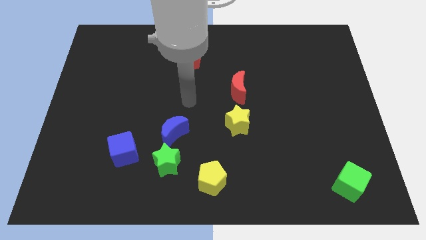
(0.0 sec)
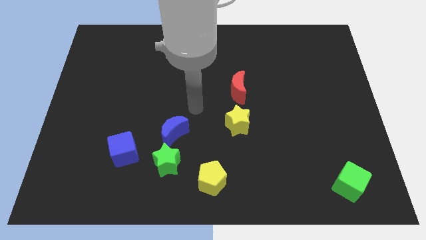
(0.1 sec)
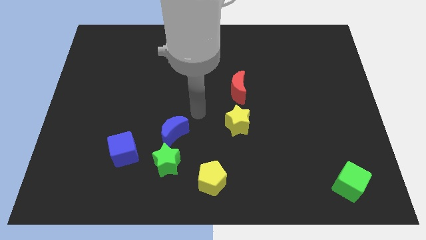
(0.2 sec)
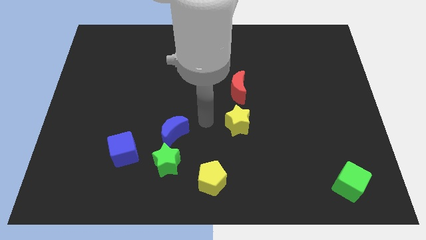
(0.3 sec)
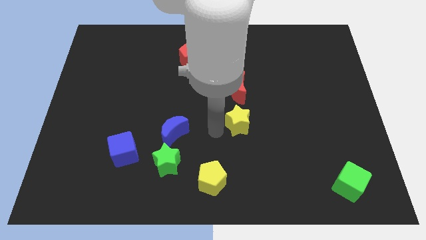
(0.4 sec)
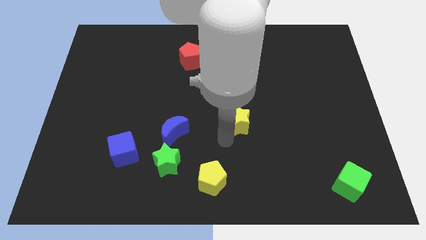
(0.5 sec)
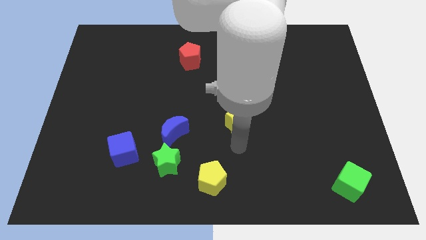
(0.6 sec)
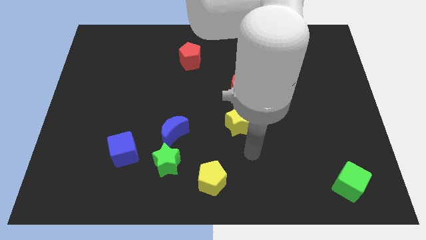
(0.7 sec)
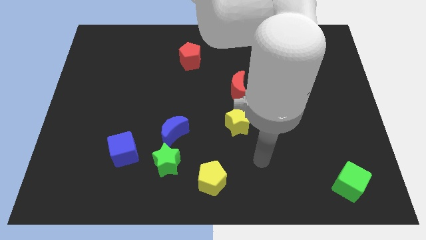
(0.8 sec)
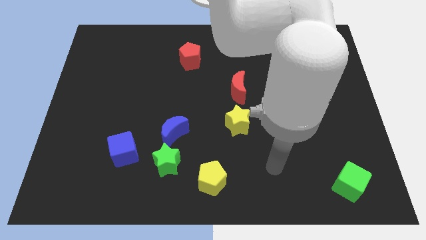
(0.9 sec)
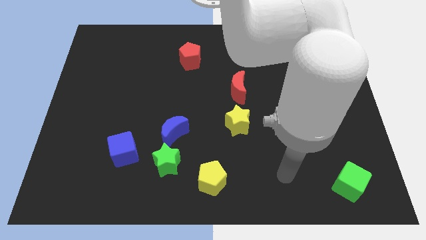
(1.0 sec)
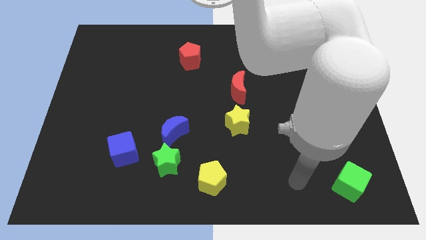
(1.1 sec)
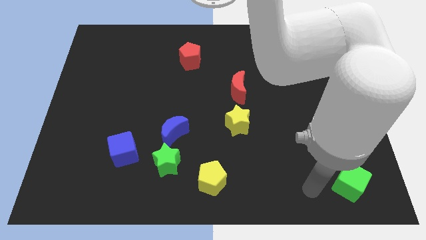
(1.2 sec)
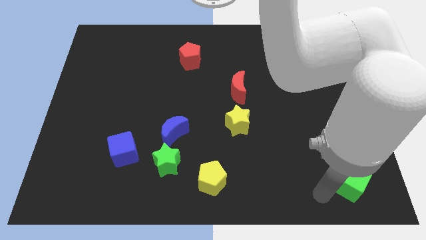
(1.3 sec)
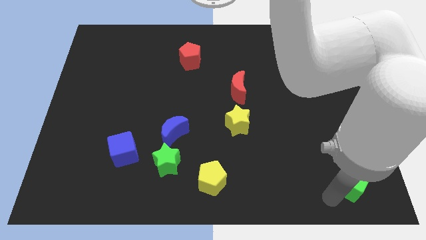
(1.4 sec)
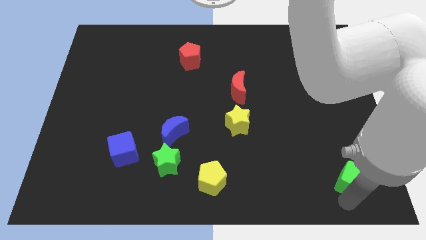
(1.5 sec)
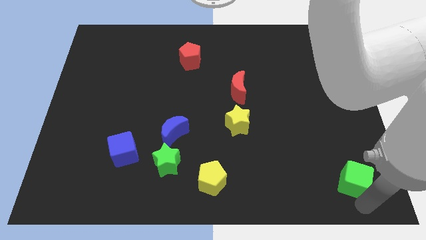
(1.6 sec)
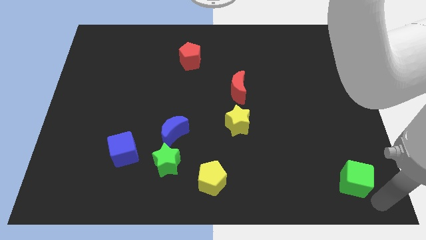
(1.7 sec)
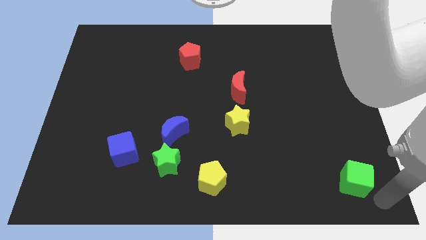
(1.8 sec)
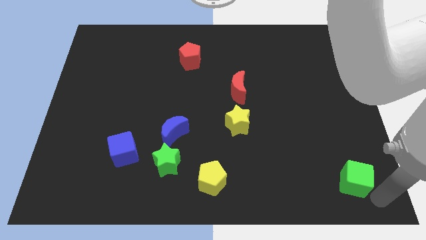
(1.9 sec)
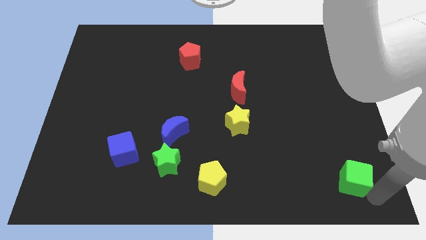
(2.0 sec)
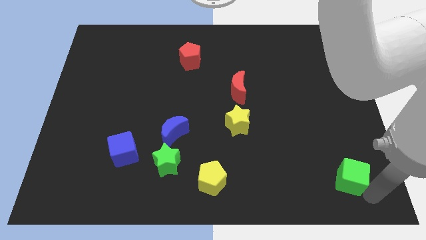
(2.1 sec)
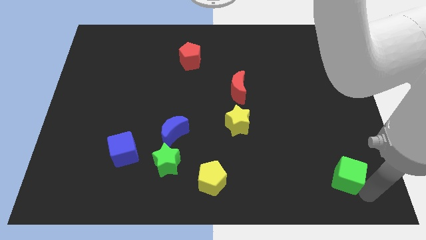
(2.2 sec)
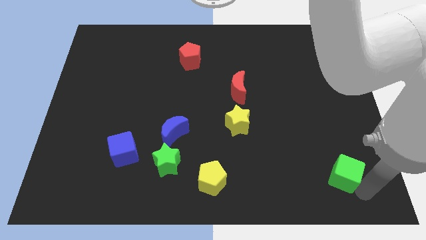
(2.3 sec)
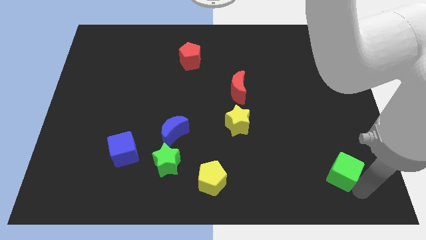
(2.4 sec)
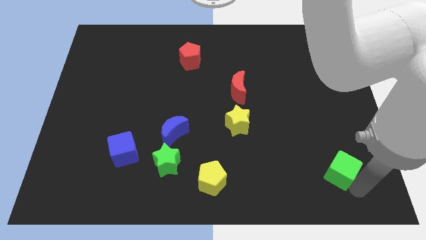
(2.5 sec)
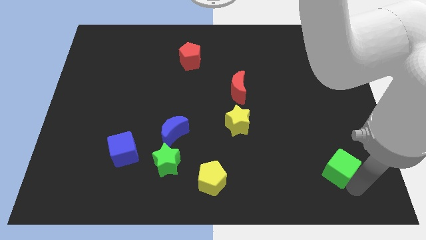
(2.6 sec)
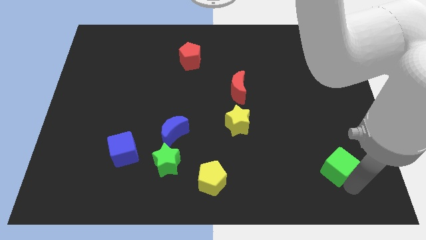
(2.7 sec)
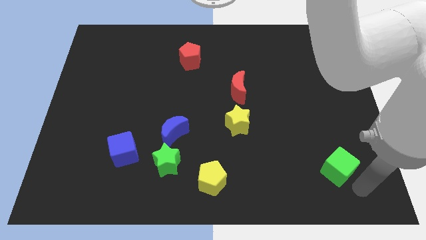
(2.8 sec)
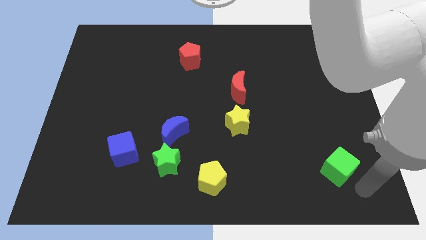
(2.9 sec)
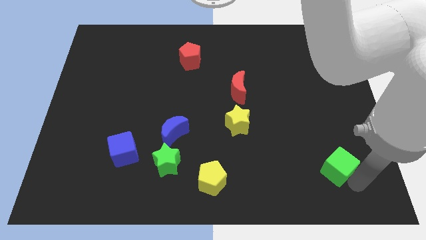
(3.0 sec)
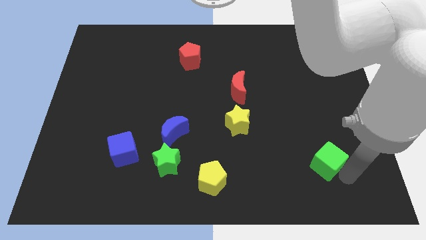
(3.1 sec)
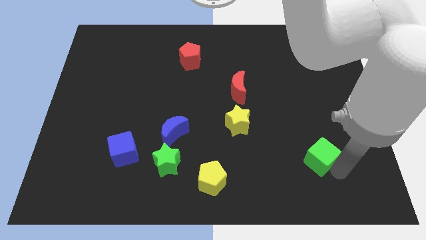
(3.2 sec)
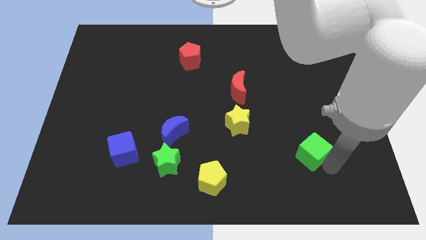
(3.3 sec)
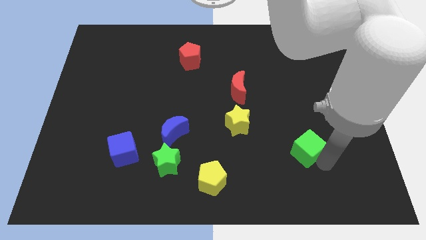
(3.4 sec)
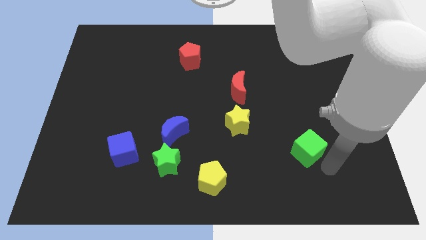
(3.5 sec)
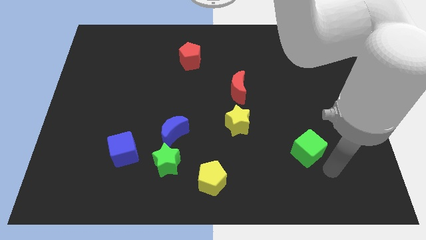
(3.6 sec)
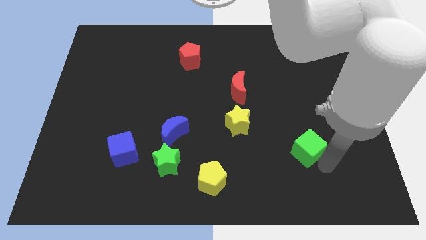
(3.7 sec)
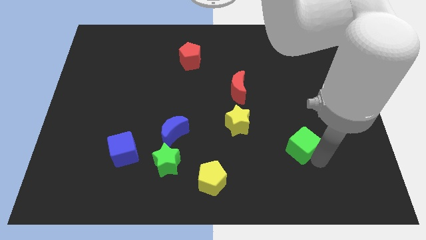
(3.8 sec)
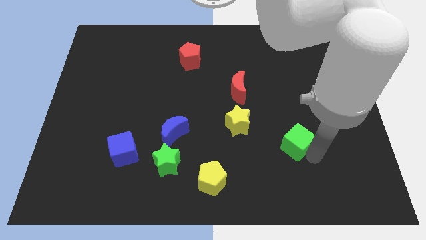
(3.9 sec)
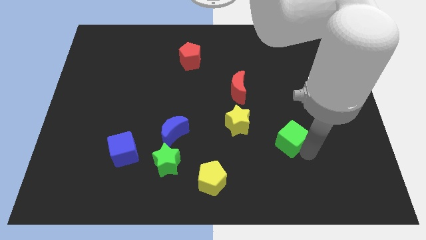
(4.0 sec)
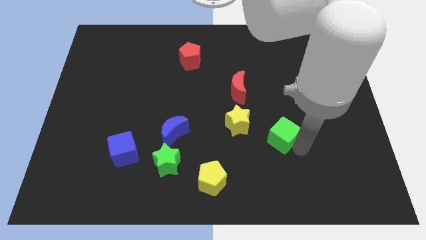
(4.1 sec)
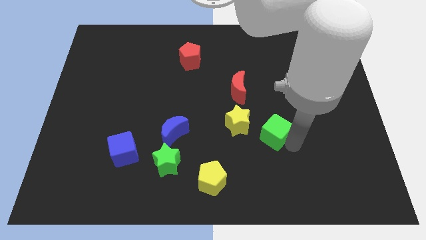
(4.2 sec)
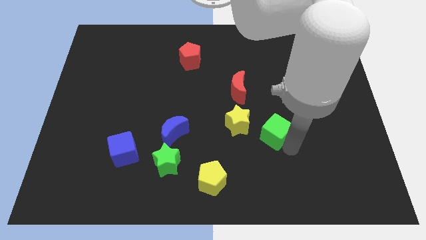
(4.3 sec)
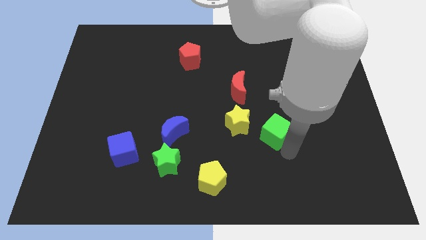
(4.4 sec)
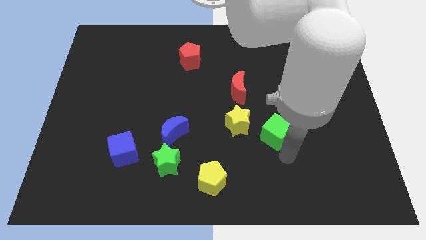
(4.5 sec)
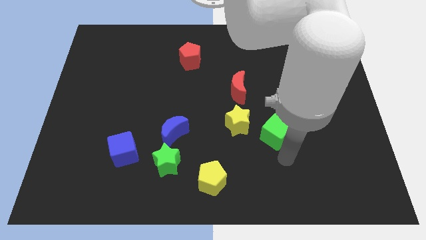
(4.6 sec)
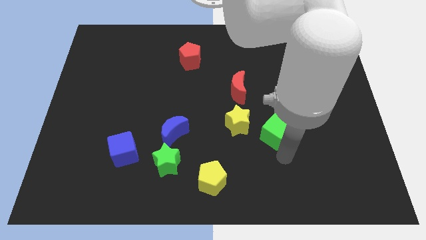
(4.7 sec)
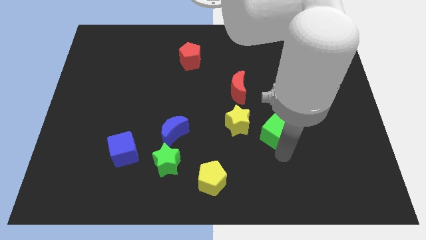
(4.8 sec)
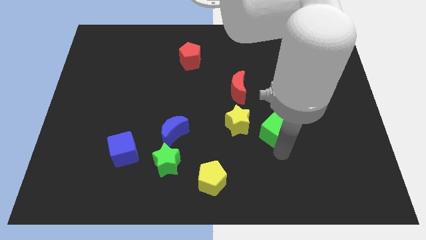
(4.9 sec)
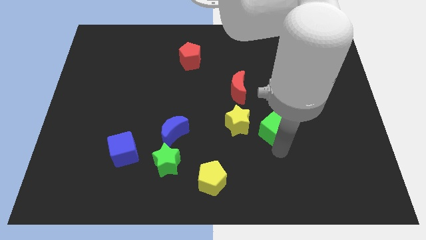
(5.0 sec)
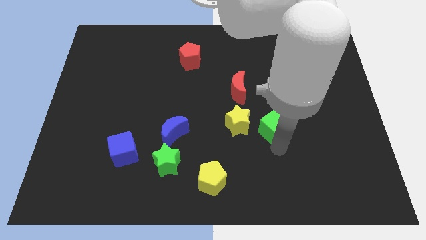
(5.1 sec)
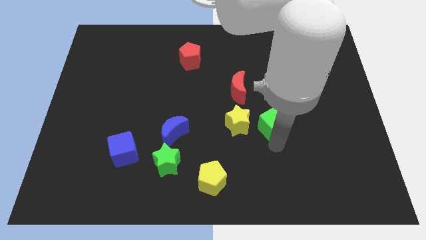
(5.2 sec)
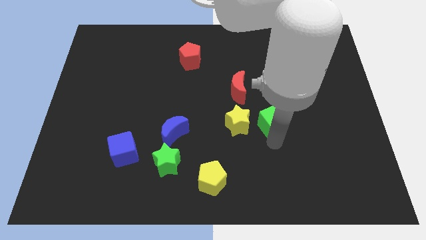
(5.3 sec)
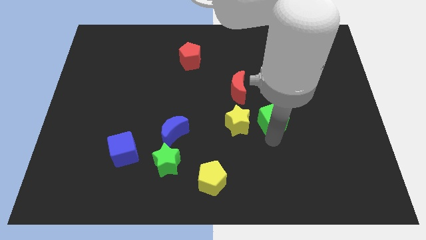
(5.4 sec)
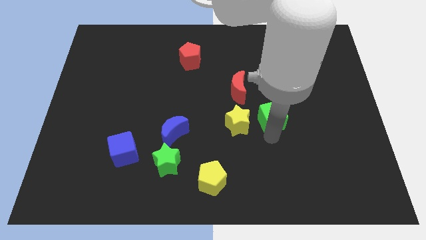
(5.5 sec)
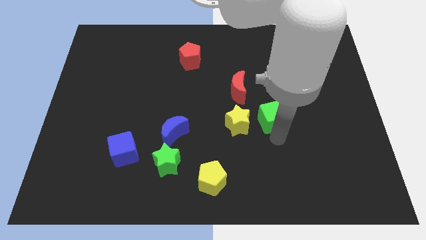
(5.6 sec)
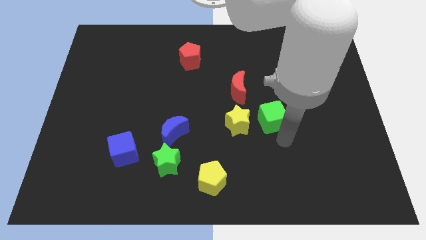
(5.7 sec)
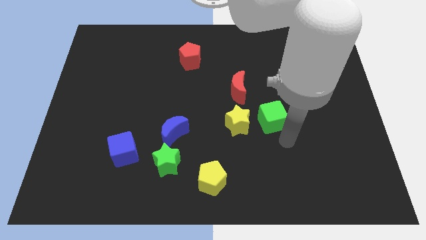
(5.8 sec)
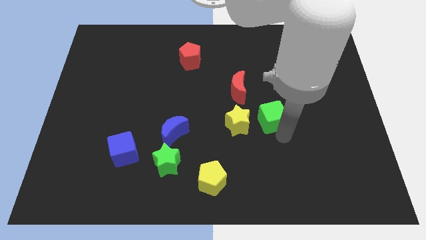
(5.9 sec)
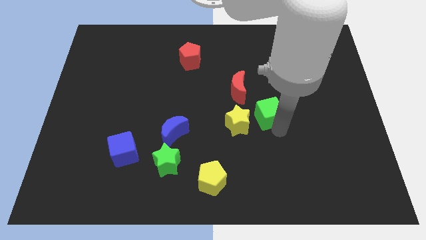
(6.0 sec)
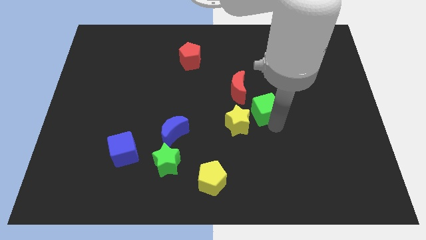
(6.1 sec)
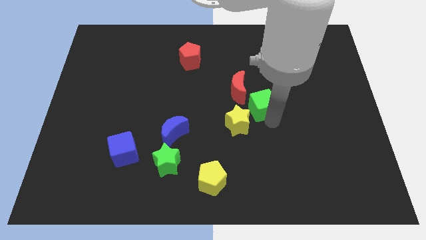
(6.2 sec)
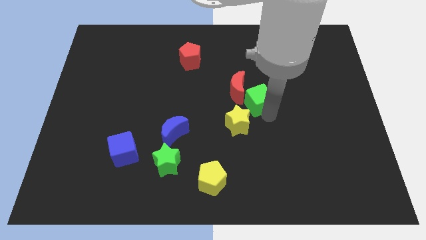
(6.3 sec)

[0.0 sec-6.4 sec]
put the green cube close to the red moon

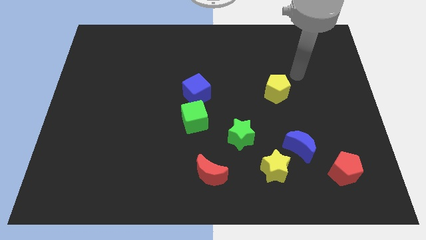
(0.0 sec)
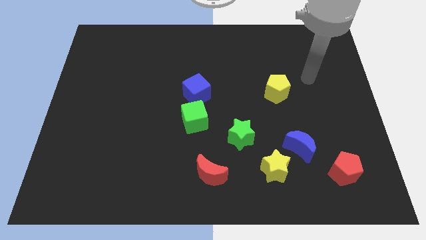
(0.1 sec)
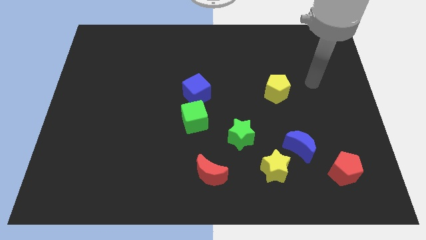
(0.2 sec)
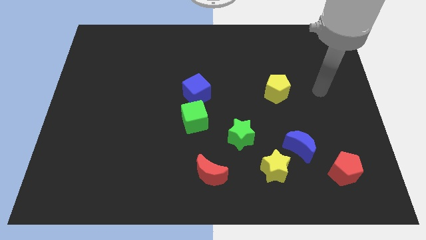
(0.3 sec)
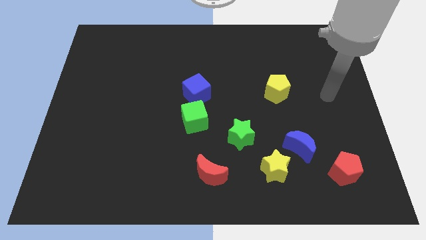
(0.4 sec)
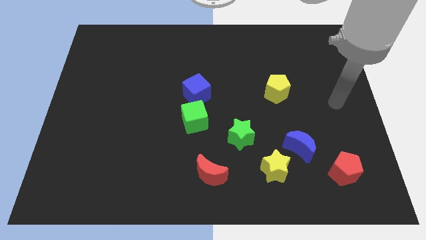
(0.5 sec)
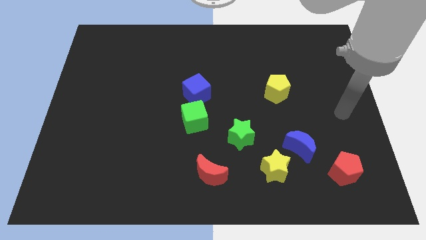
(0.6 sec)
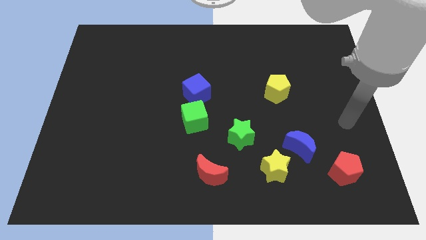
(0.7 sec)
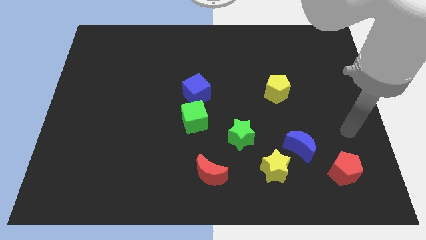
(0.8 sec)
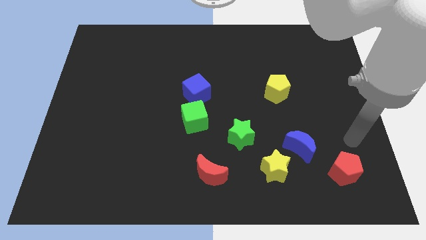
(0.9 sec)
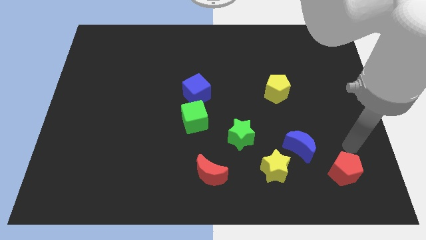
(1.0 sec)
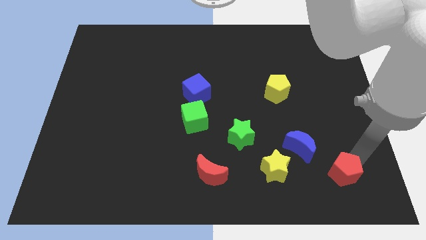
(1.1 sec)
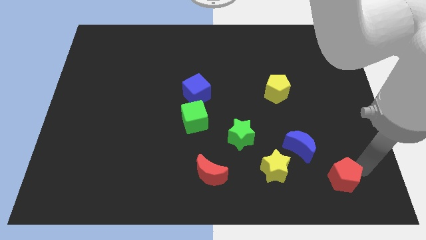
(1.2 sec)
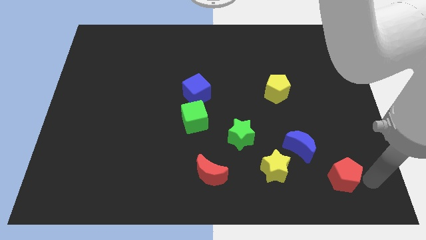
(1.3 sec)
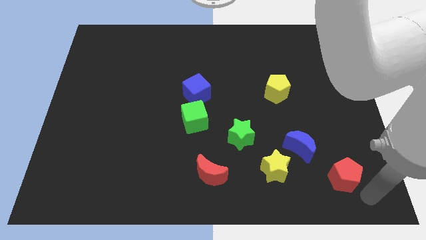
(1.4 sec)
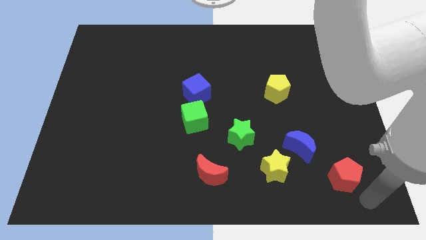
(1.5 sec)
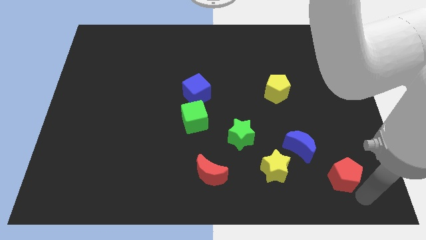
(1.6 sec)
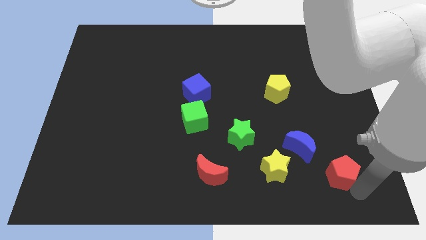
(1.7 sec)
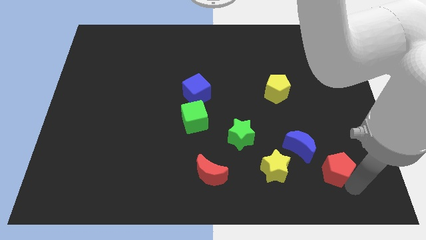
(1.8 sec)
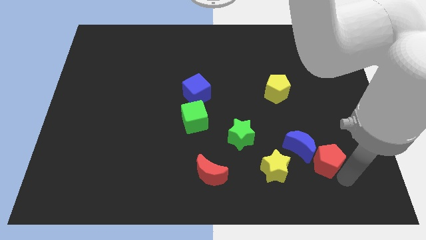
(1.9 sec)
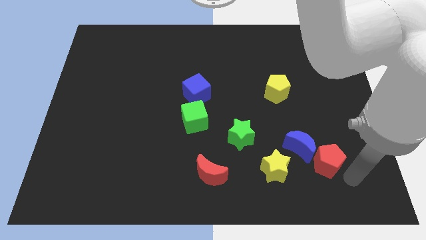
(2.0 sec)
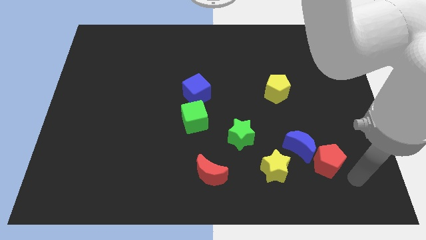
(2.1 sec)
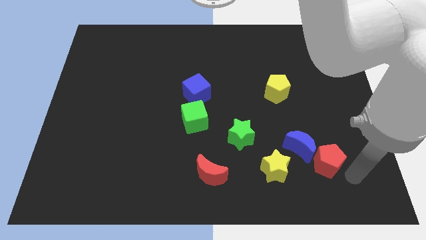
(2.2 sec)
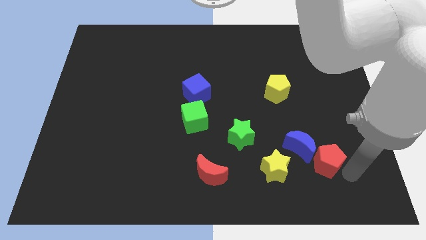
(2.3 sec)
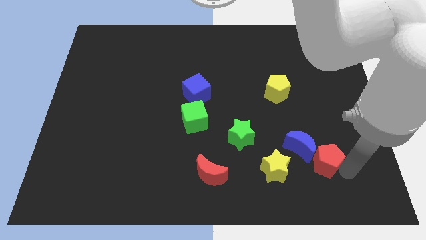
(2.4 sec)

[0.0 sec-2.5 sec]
slide the red pentagon to the blue moon
